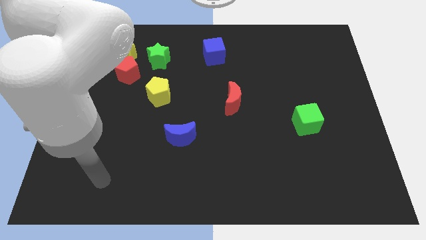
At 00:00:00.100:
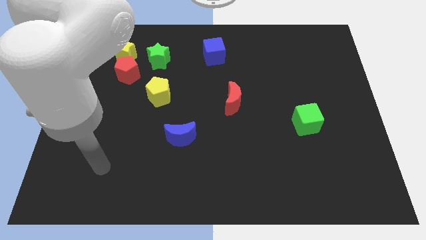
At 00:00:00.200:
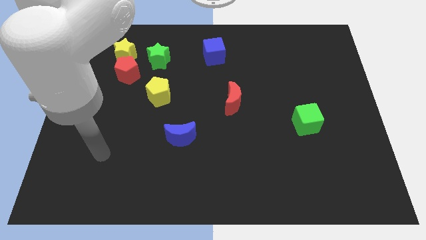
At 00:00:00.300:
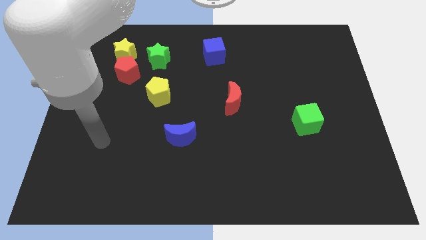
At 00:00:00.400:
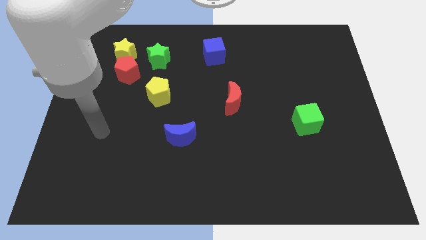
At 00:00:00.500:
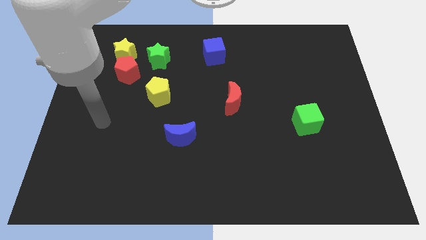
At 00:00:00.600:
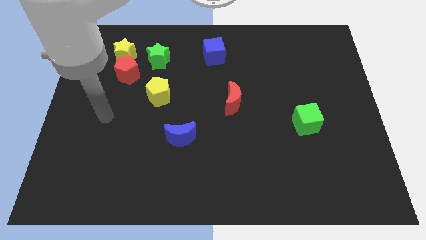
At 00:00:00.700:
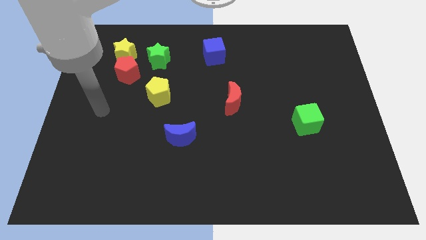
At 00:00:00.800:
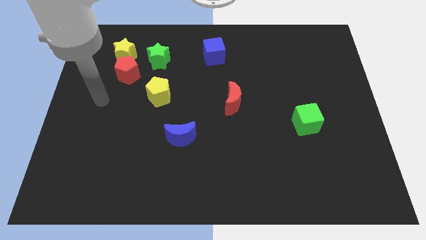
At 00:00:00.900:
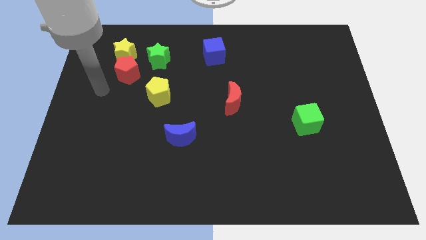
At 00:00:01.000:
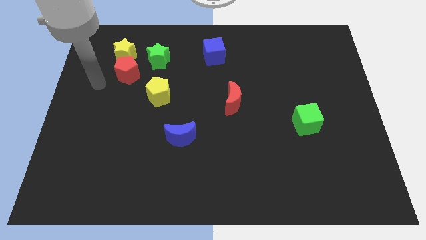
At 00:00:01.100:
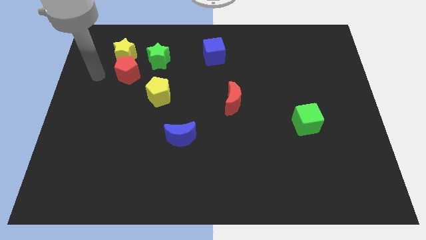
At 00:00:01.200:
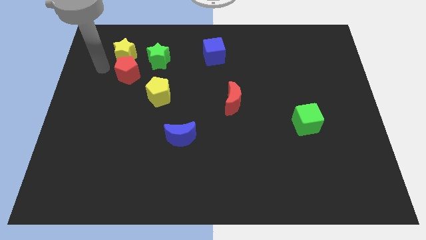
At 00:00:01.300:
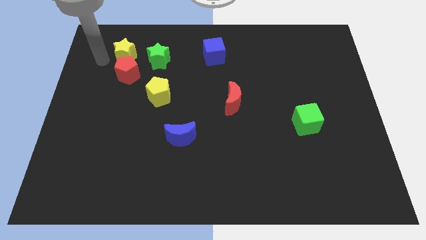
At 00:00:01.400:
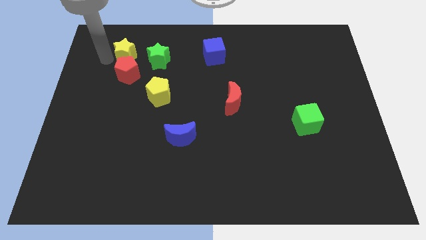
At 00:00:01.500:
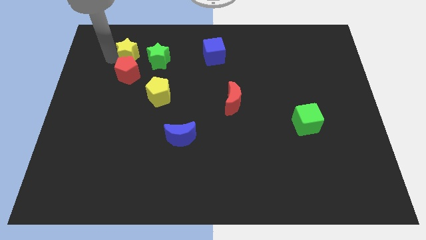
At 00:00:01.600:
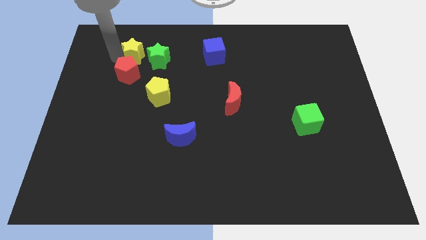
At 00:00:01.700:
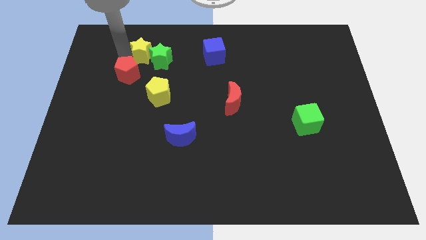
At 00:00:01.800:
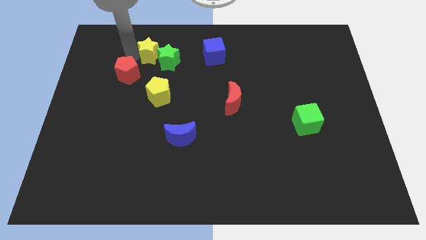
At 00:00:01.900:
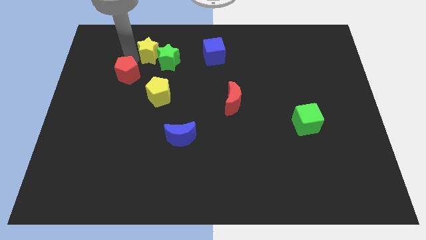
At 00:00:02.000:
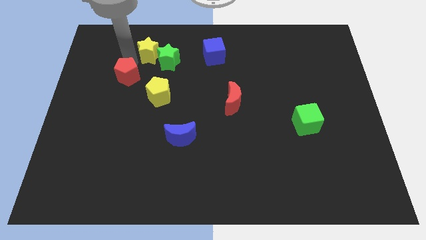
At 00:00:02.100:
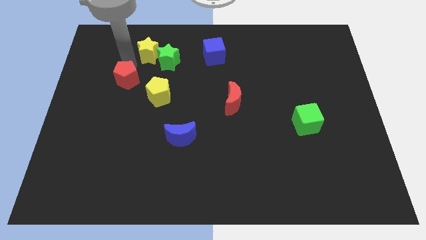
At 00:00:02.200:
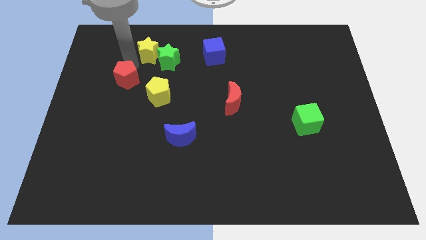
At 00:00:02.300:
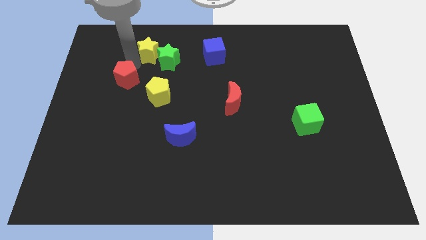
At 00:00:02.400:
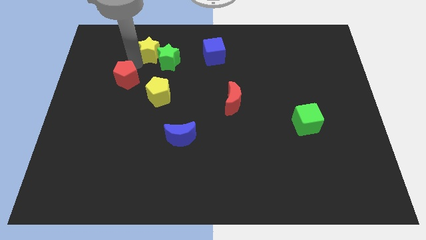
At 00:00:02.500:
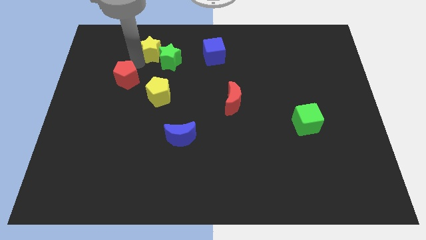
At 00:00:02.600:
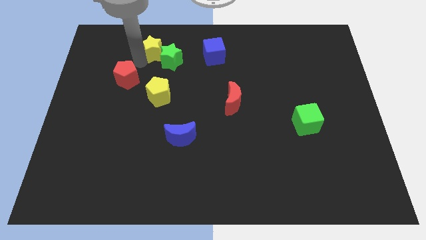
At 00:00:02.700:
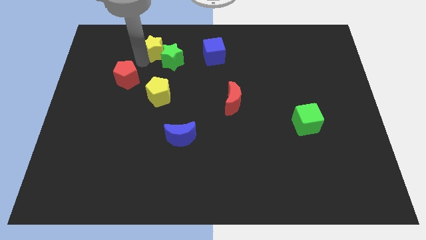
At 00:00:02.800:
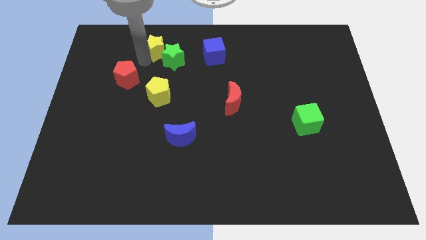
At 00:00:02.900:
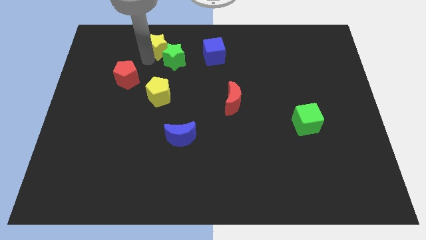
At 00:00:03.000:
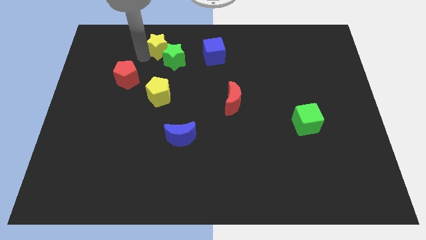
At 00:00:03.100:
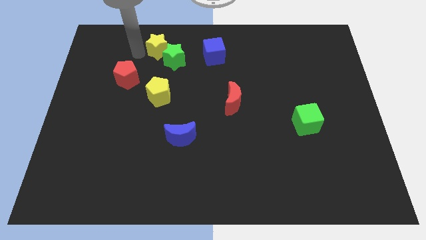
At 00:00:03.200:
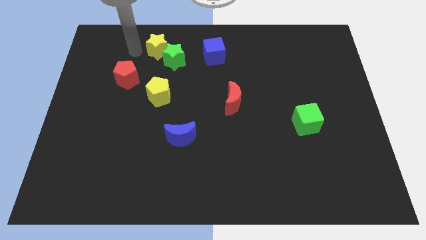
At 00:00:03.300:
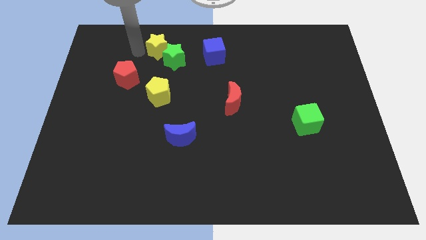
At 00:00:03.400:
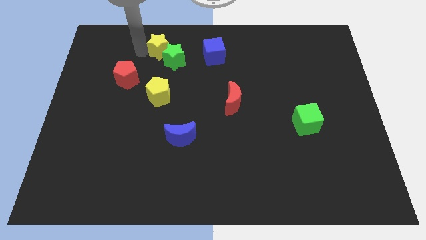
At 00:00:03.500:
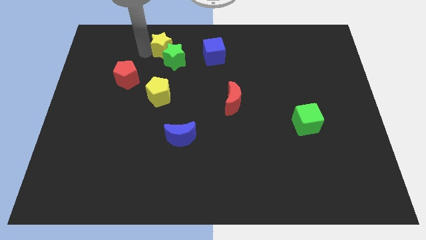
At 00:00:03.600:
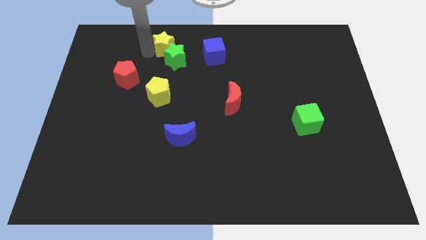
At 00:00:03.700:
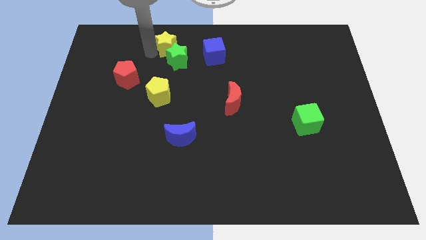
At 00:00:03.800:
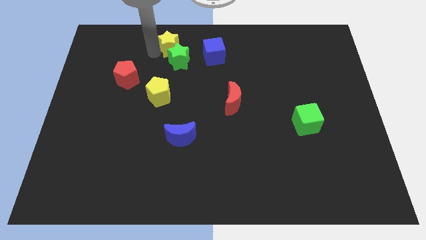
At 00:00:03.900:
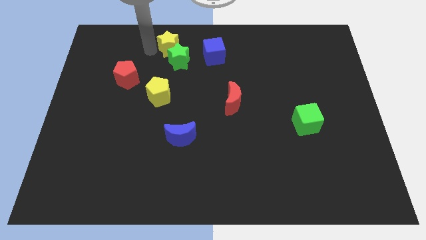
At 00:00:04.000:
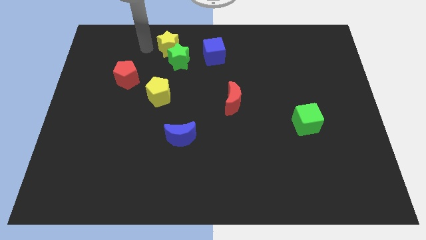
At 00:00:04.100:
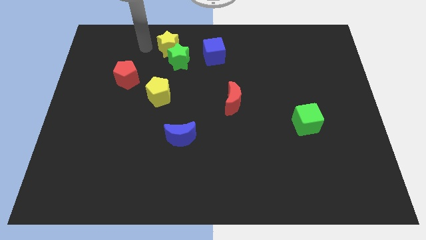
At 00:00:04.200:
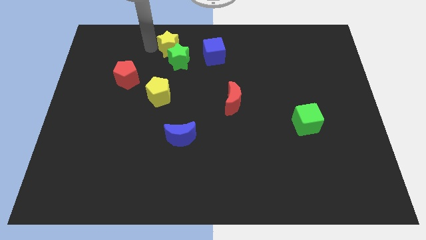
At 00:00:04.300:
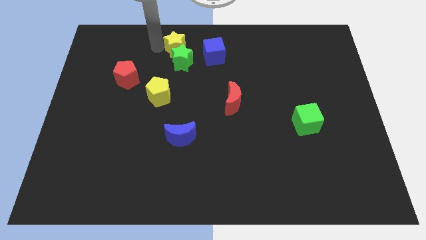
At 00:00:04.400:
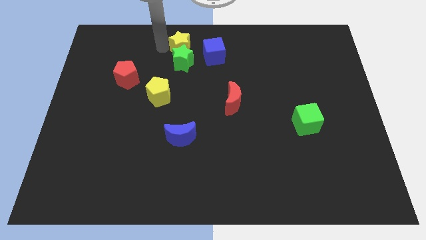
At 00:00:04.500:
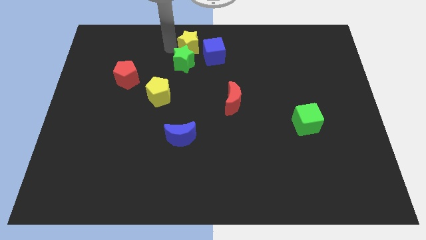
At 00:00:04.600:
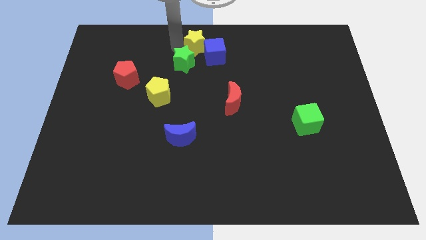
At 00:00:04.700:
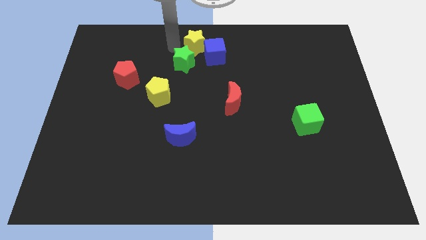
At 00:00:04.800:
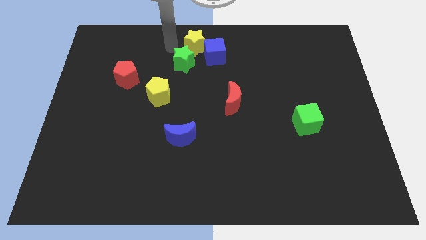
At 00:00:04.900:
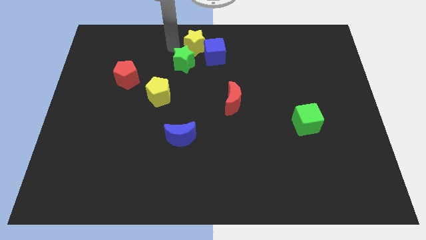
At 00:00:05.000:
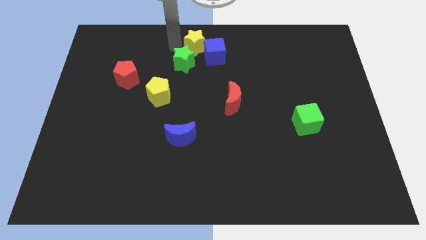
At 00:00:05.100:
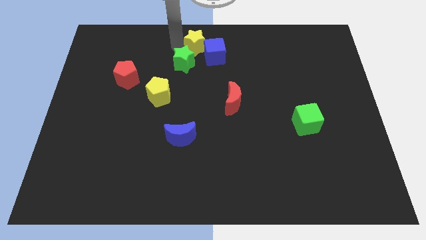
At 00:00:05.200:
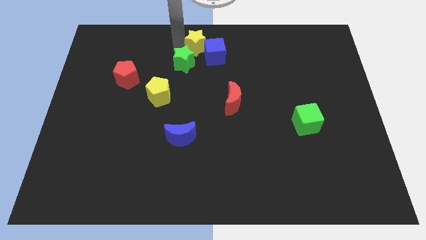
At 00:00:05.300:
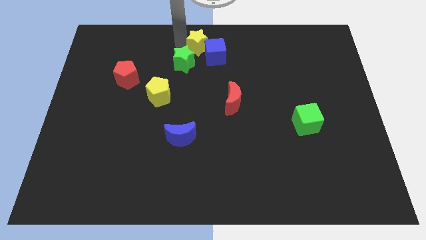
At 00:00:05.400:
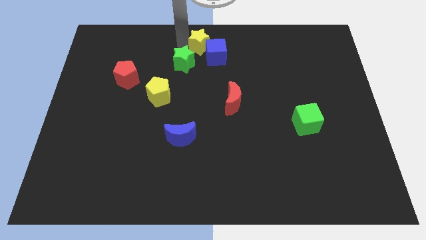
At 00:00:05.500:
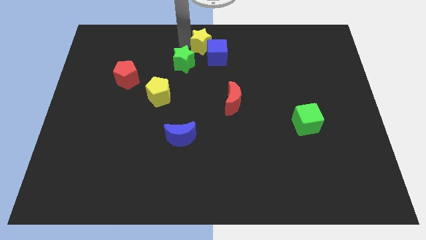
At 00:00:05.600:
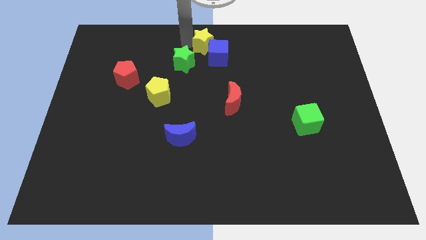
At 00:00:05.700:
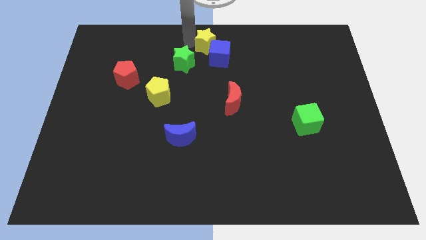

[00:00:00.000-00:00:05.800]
push the yellow star right

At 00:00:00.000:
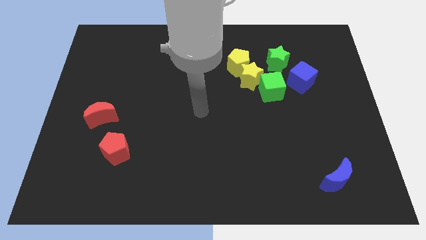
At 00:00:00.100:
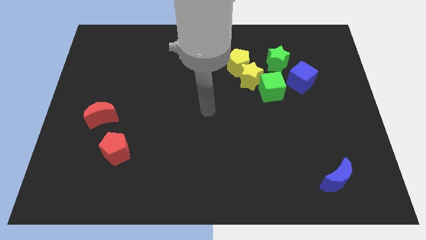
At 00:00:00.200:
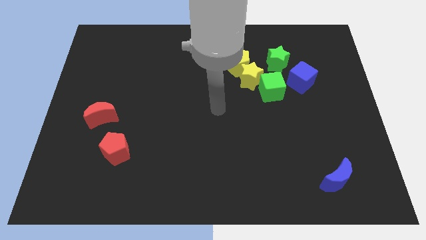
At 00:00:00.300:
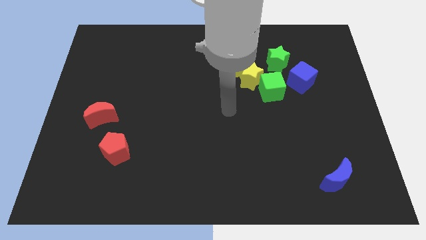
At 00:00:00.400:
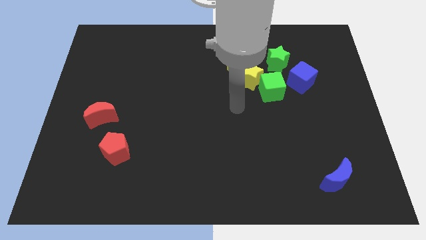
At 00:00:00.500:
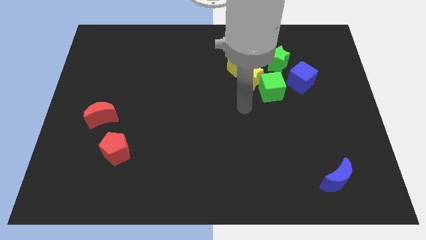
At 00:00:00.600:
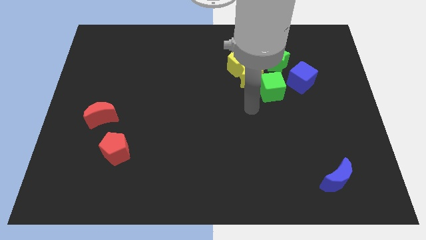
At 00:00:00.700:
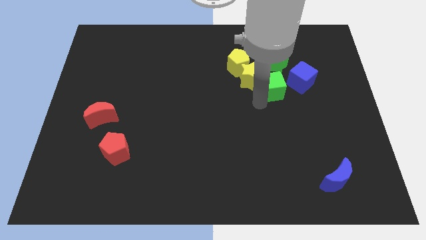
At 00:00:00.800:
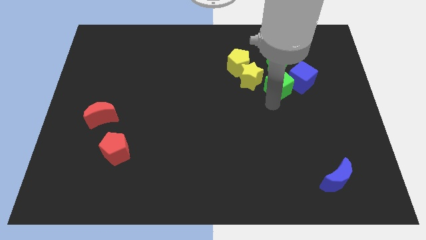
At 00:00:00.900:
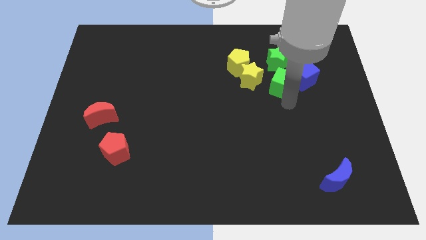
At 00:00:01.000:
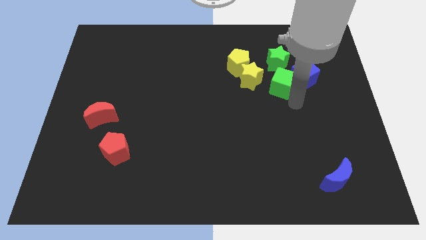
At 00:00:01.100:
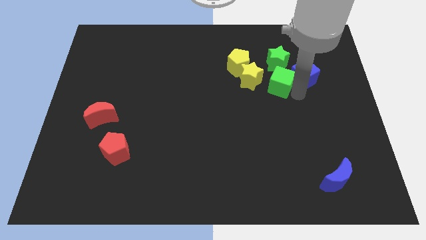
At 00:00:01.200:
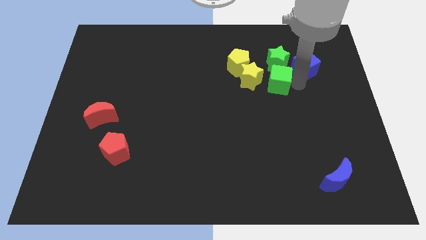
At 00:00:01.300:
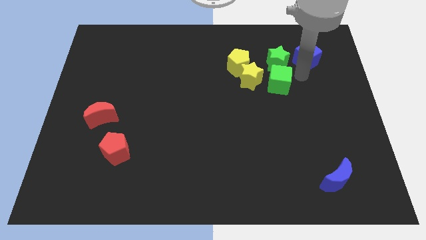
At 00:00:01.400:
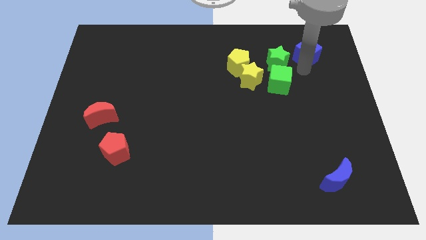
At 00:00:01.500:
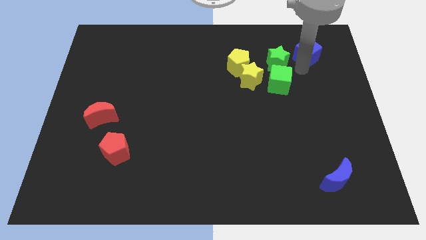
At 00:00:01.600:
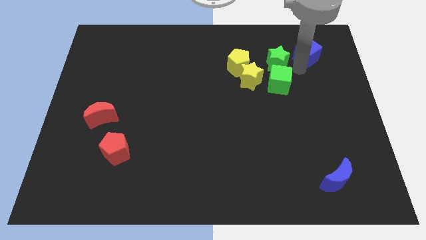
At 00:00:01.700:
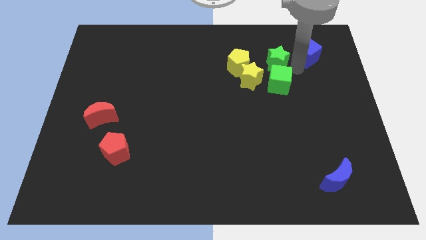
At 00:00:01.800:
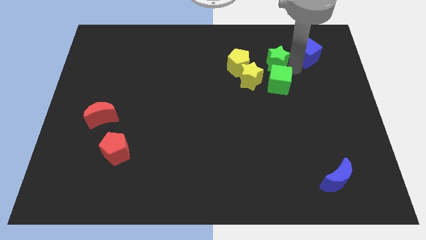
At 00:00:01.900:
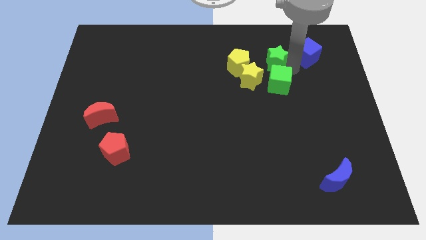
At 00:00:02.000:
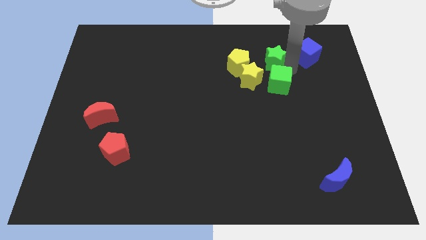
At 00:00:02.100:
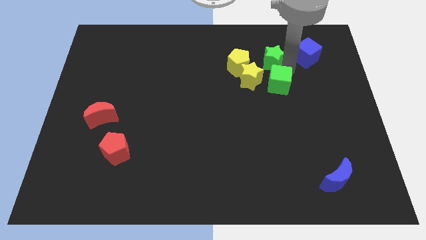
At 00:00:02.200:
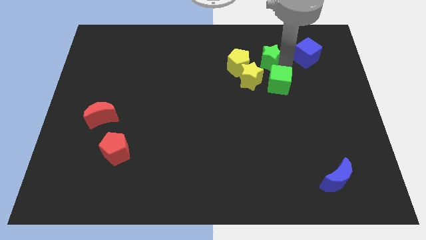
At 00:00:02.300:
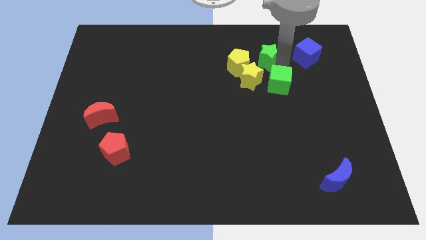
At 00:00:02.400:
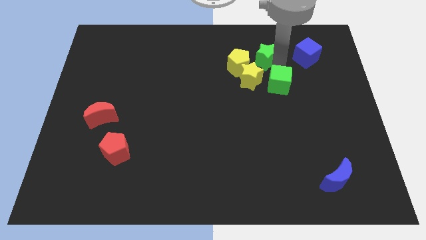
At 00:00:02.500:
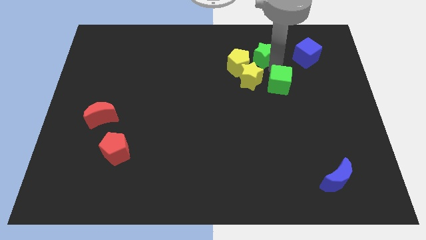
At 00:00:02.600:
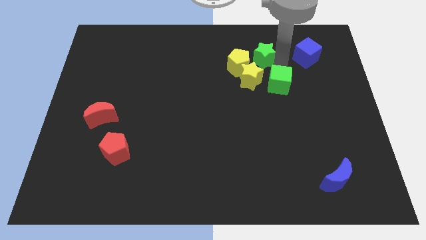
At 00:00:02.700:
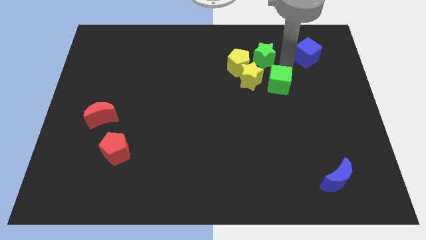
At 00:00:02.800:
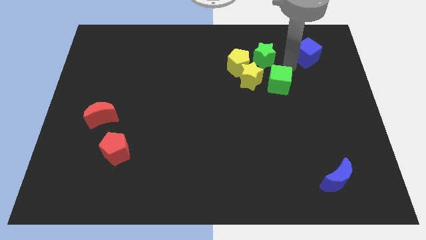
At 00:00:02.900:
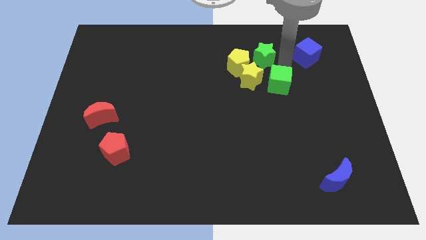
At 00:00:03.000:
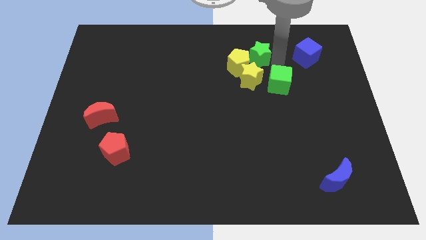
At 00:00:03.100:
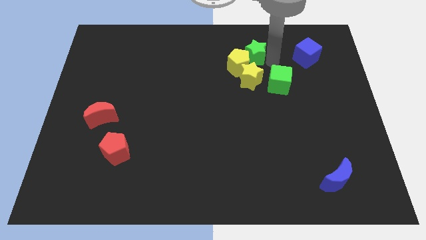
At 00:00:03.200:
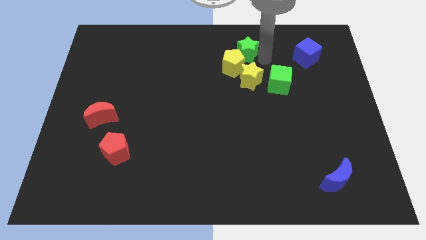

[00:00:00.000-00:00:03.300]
slightly slide the green star to the left
